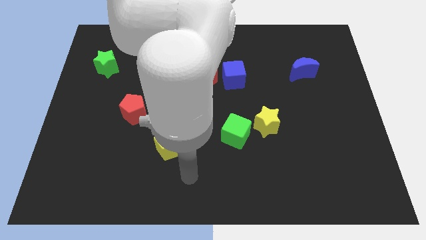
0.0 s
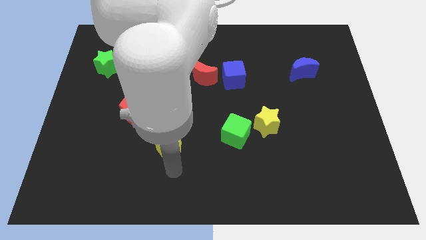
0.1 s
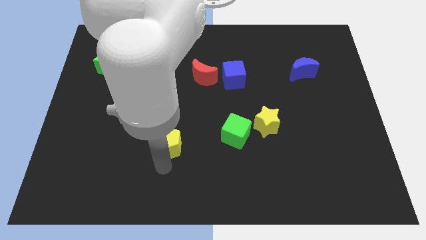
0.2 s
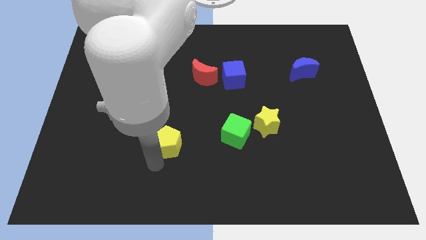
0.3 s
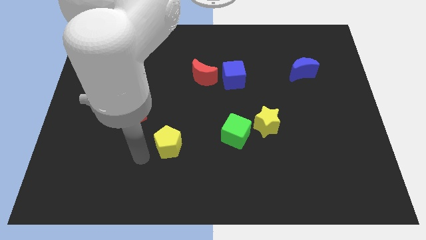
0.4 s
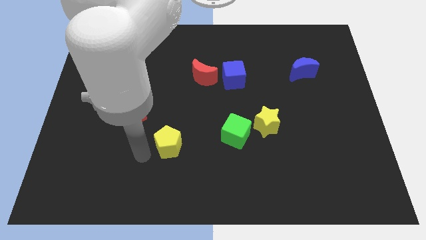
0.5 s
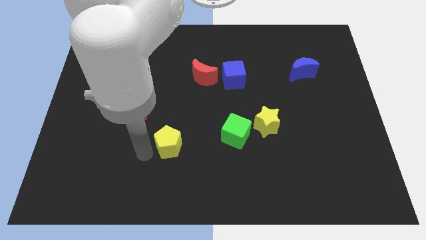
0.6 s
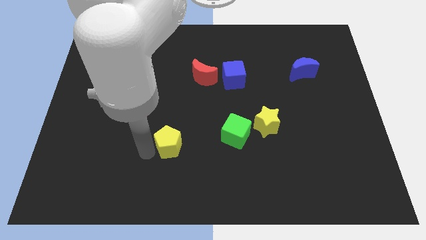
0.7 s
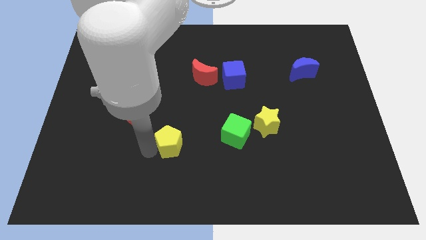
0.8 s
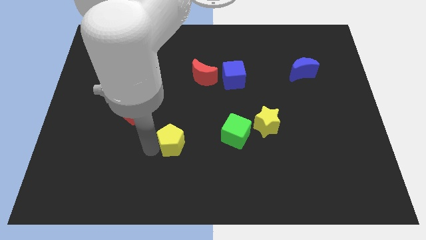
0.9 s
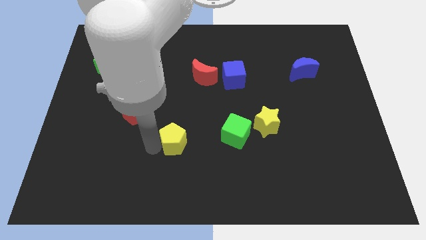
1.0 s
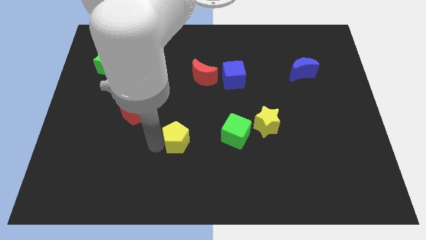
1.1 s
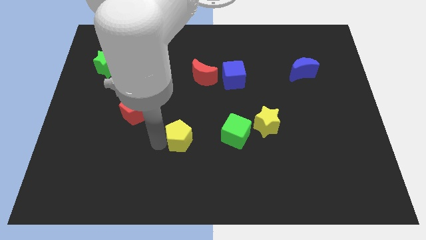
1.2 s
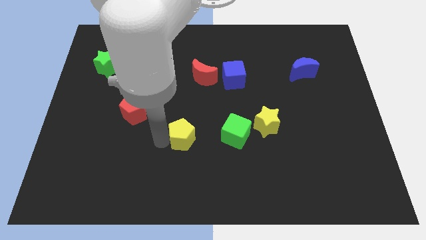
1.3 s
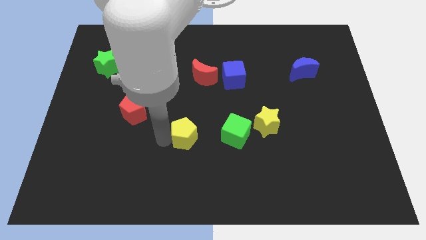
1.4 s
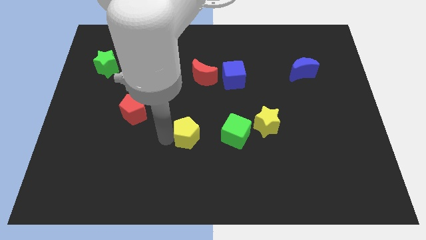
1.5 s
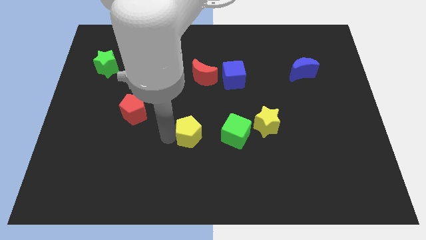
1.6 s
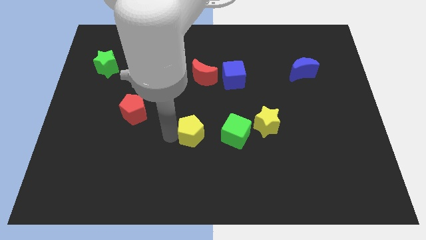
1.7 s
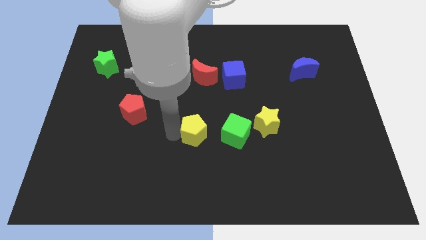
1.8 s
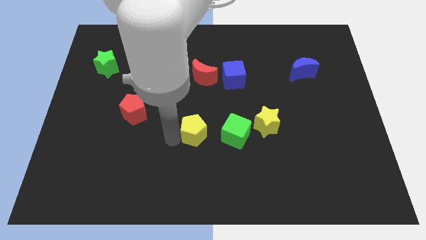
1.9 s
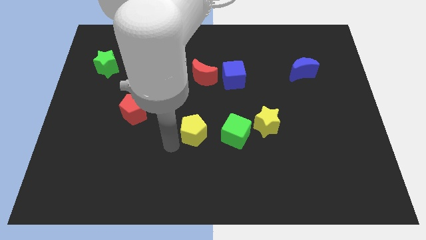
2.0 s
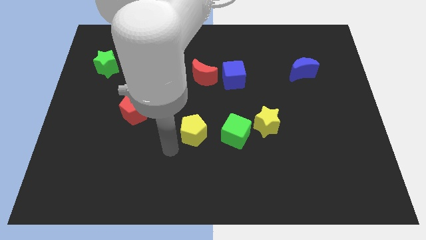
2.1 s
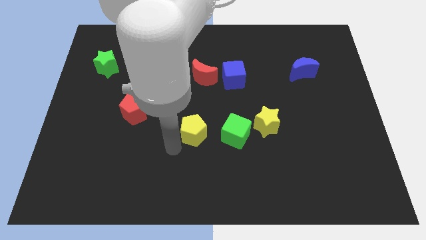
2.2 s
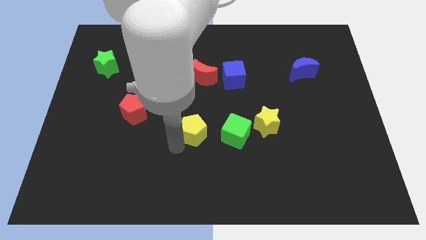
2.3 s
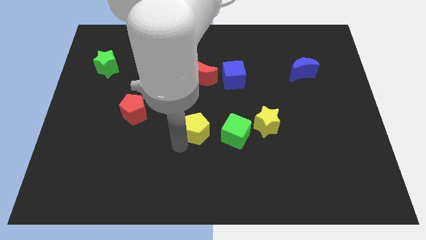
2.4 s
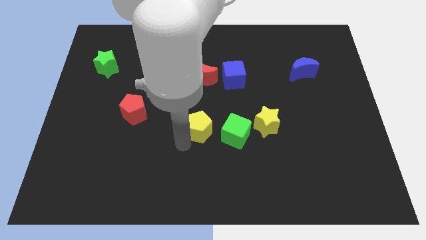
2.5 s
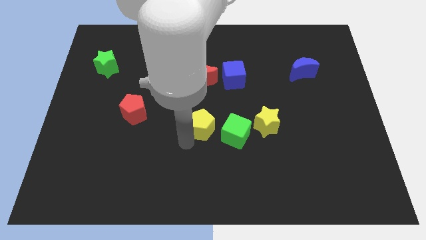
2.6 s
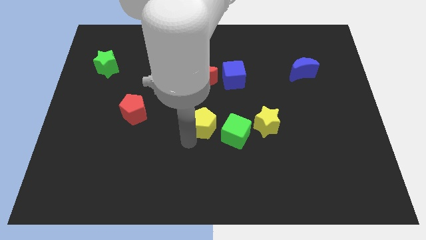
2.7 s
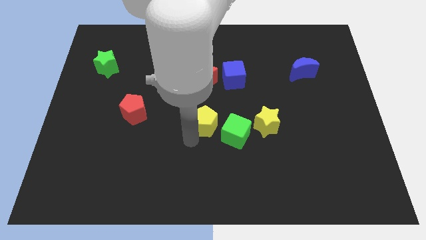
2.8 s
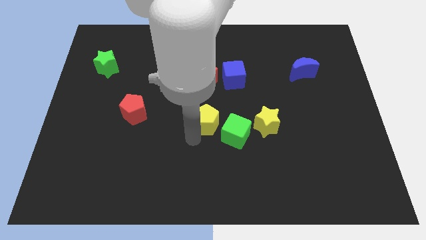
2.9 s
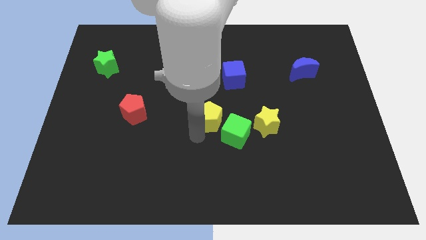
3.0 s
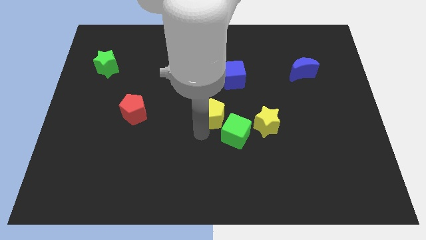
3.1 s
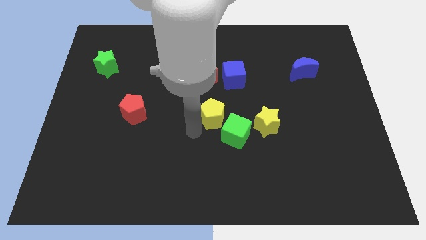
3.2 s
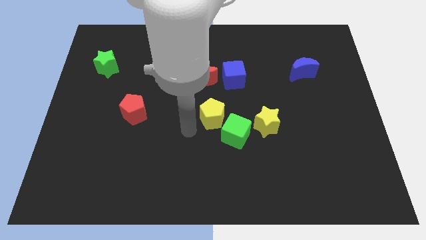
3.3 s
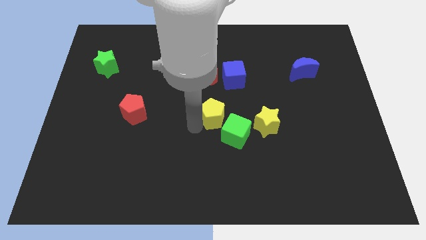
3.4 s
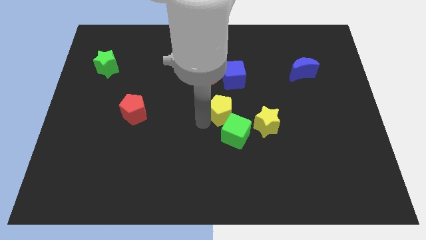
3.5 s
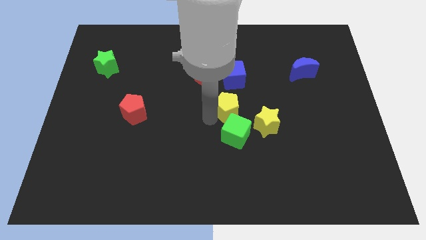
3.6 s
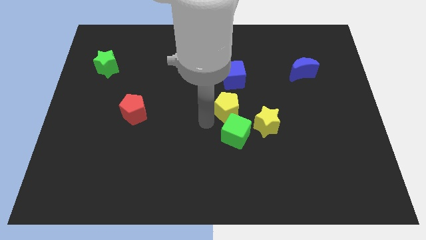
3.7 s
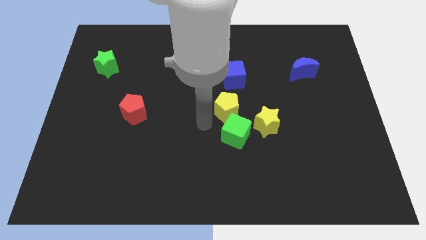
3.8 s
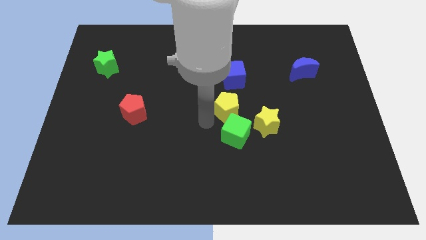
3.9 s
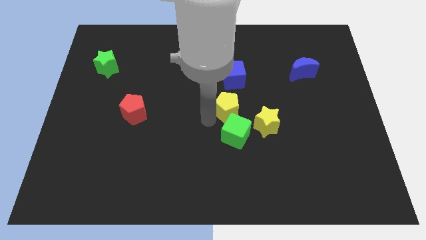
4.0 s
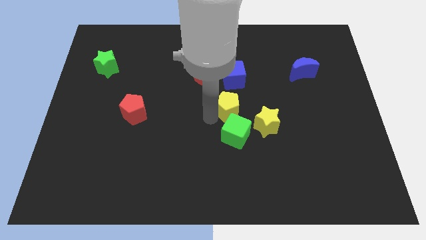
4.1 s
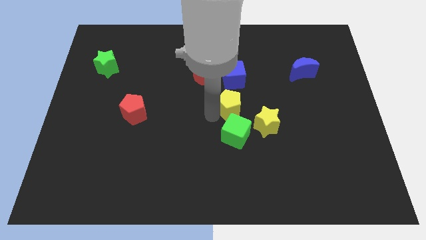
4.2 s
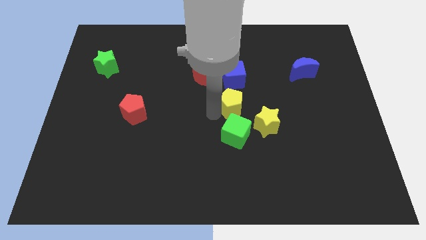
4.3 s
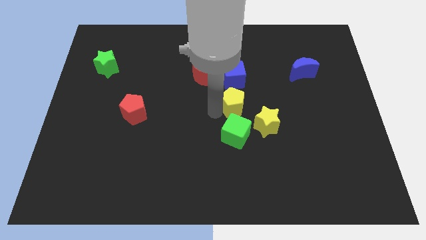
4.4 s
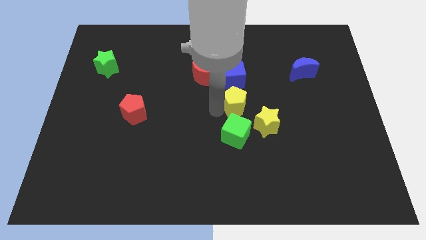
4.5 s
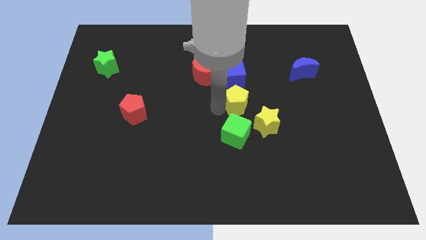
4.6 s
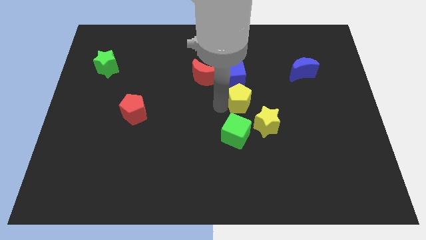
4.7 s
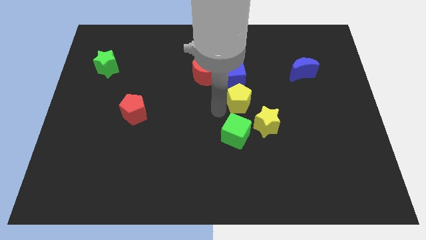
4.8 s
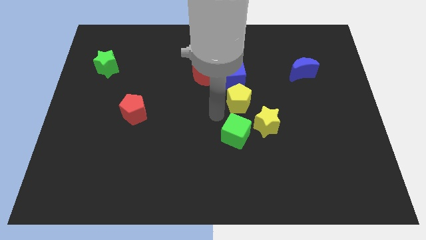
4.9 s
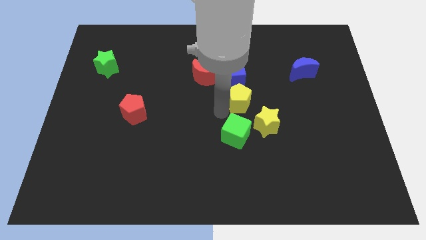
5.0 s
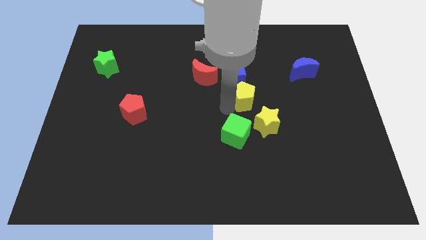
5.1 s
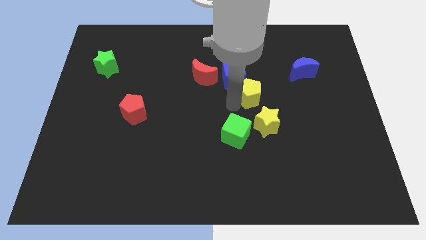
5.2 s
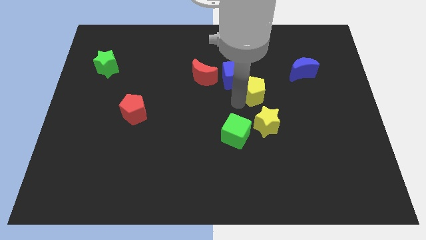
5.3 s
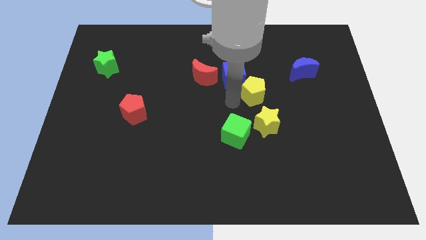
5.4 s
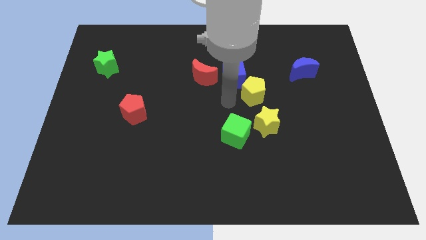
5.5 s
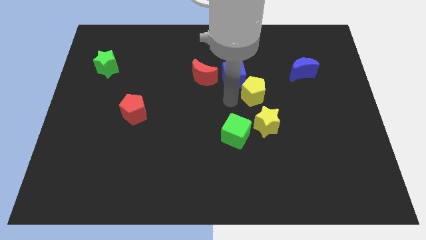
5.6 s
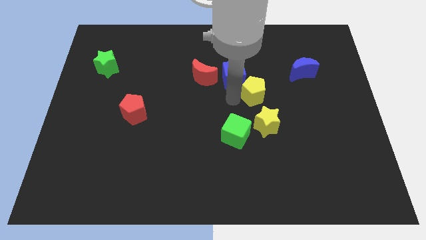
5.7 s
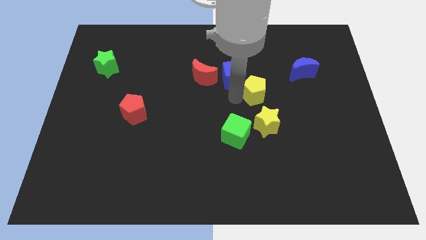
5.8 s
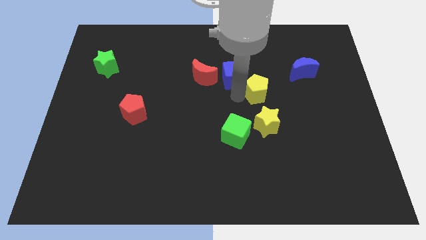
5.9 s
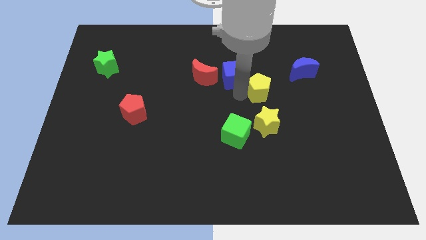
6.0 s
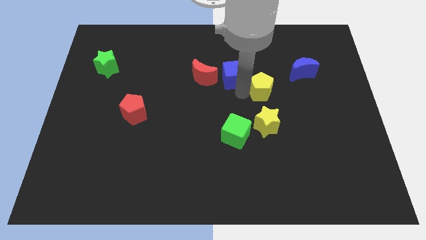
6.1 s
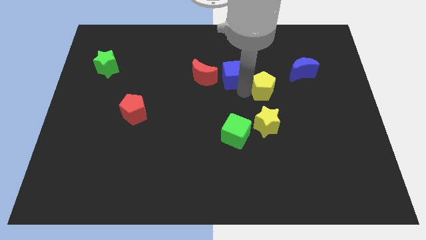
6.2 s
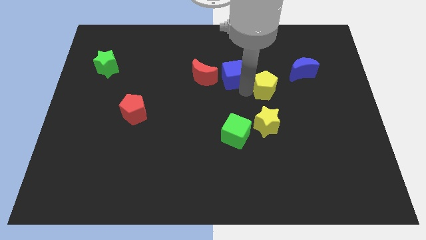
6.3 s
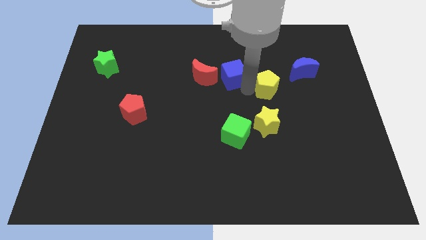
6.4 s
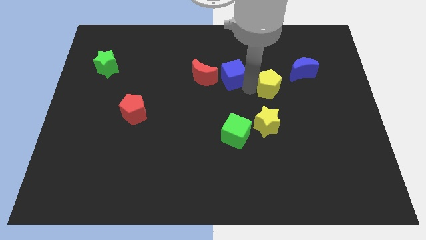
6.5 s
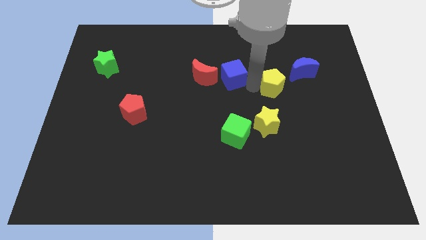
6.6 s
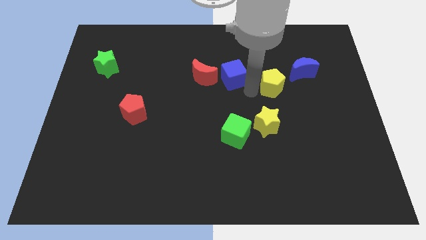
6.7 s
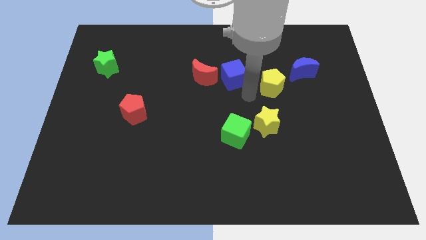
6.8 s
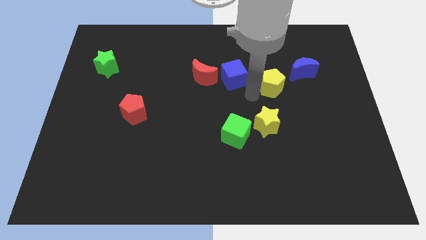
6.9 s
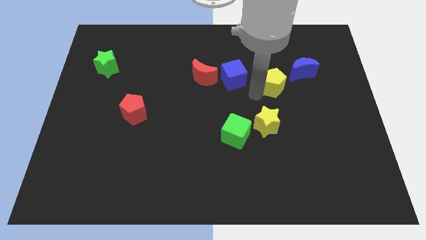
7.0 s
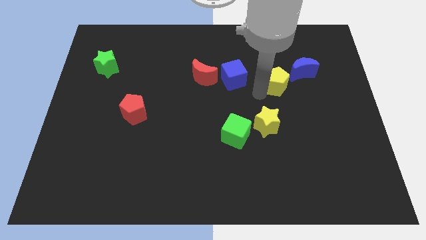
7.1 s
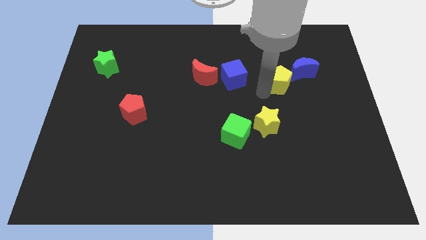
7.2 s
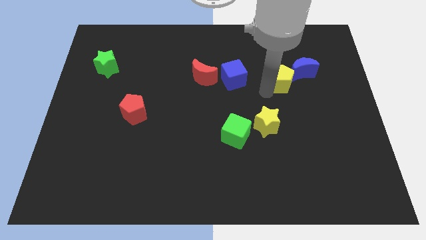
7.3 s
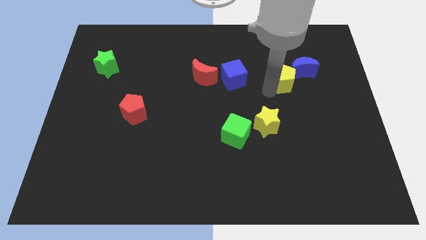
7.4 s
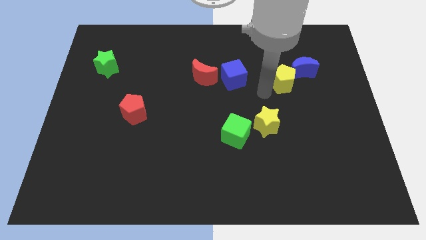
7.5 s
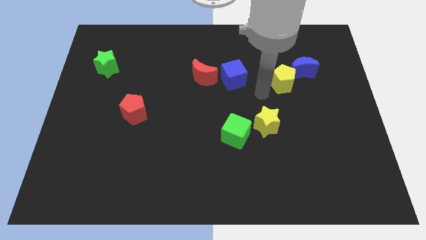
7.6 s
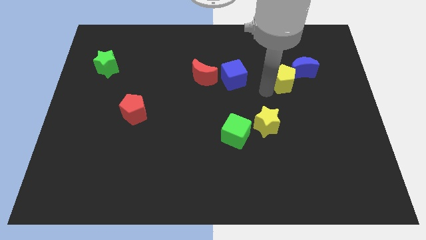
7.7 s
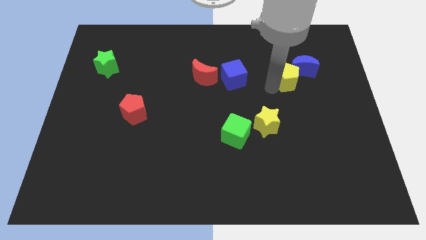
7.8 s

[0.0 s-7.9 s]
put the yellow pentagon towards the blue moon
